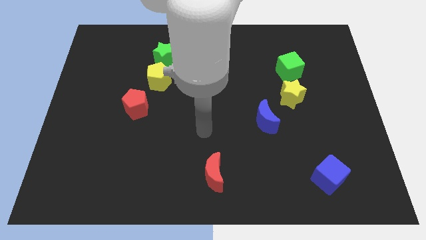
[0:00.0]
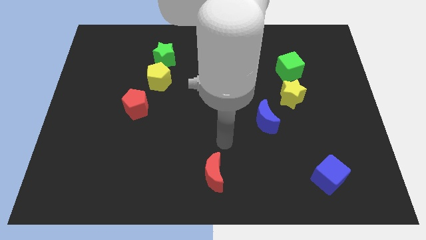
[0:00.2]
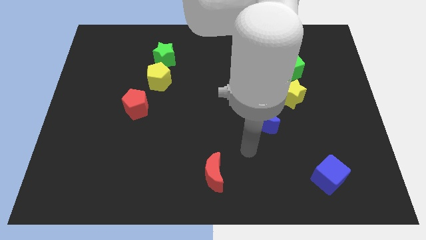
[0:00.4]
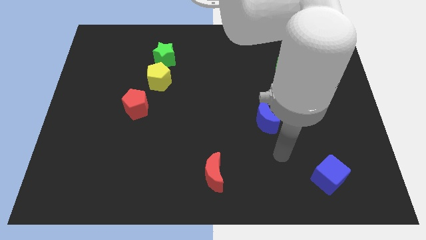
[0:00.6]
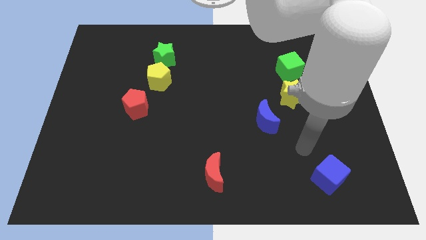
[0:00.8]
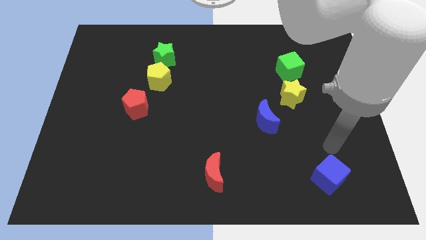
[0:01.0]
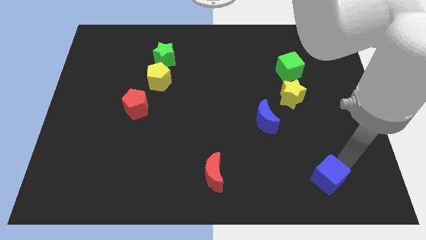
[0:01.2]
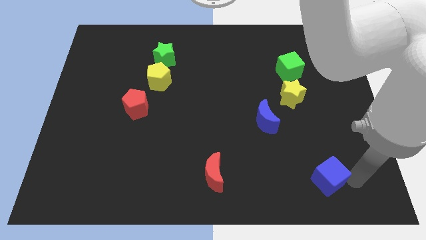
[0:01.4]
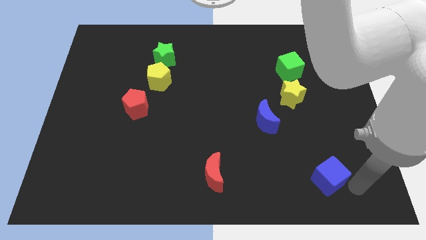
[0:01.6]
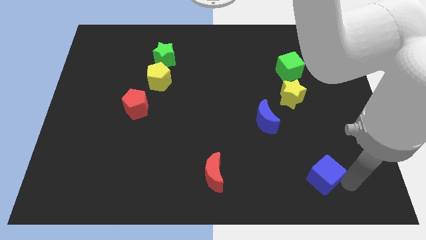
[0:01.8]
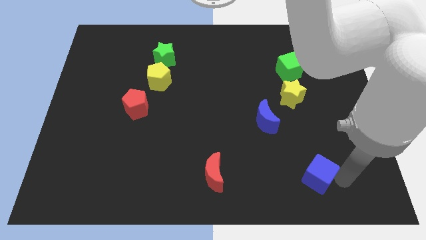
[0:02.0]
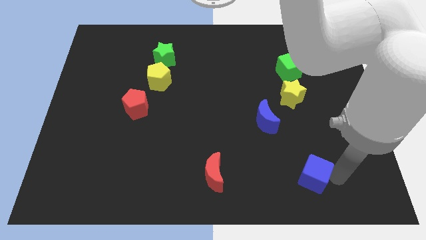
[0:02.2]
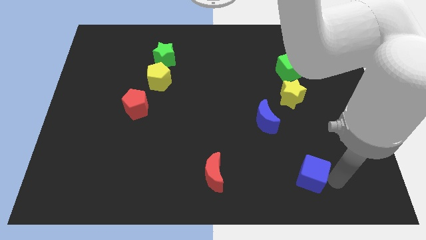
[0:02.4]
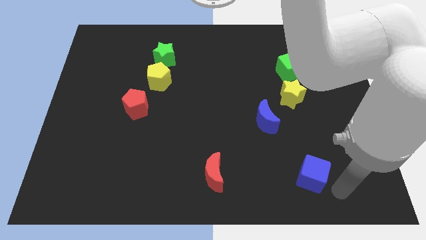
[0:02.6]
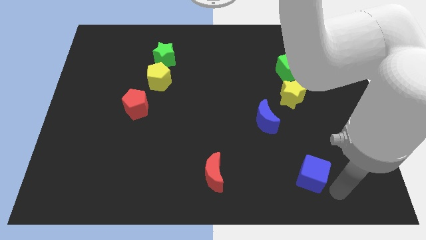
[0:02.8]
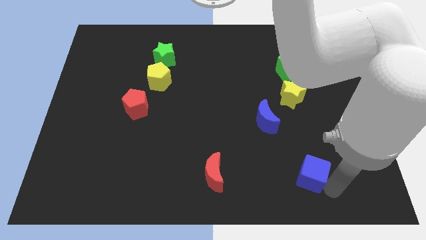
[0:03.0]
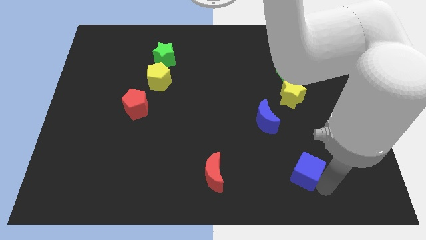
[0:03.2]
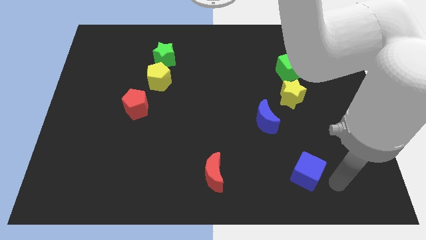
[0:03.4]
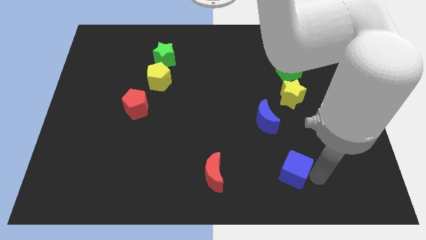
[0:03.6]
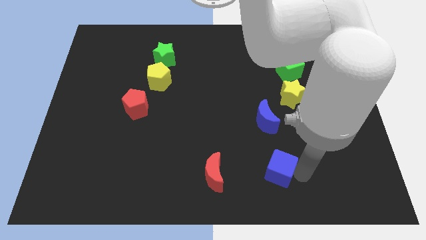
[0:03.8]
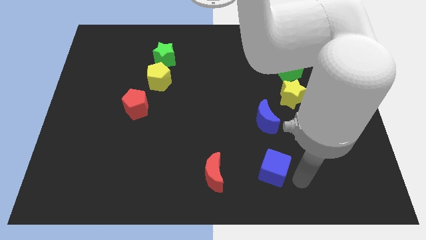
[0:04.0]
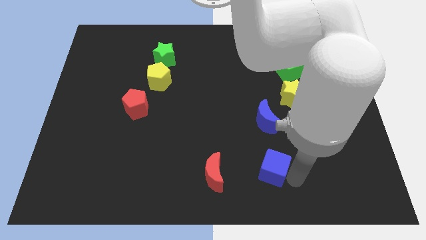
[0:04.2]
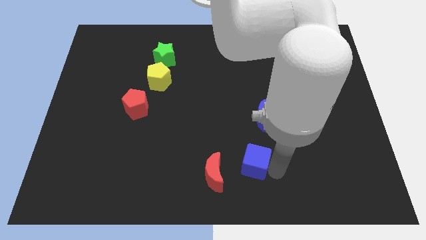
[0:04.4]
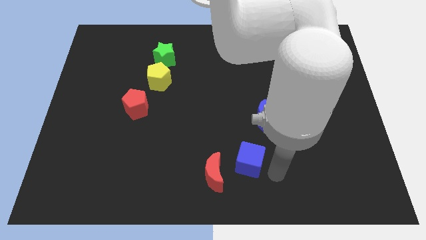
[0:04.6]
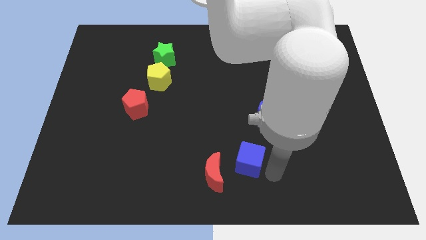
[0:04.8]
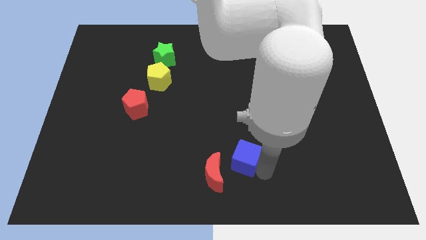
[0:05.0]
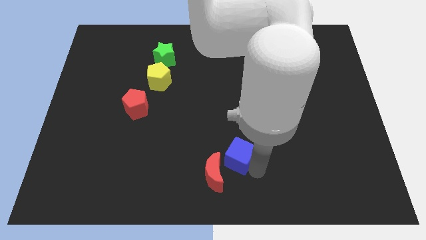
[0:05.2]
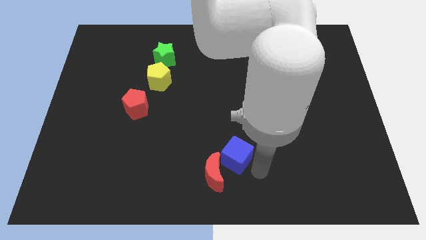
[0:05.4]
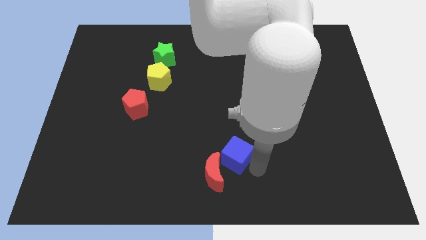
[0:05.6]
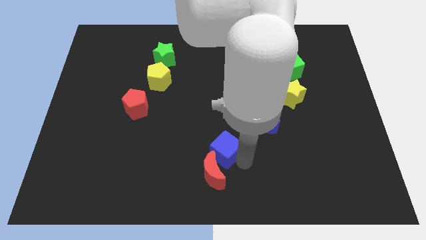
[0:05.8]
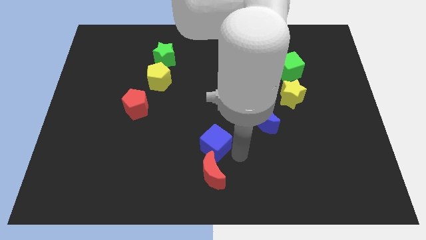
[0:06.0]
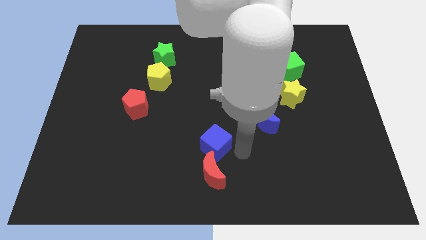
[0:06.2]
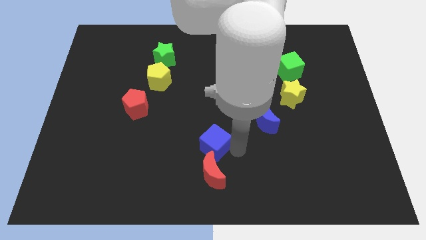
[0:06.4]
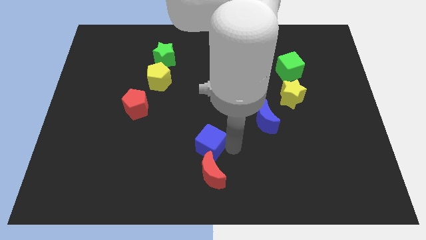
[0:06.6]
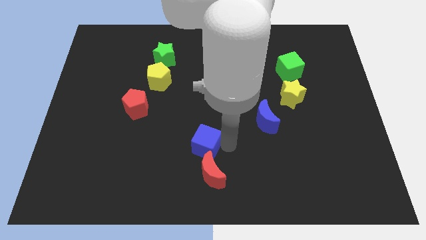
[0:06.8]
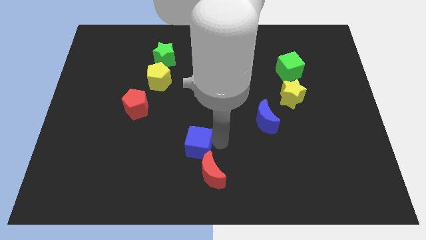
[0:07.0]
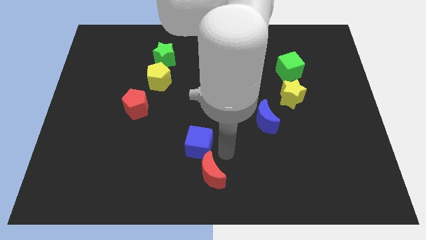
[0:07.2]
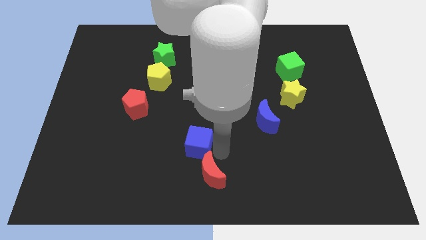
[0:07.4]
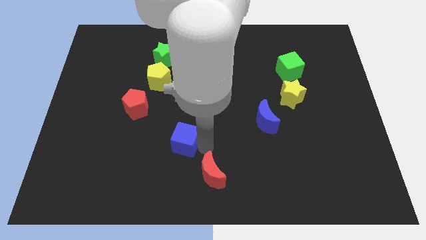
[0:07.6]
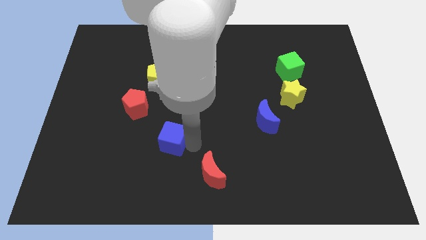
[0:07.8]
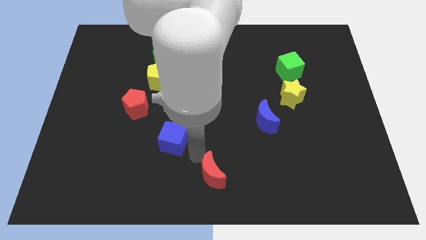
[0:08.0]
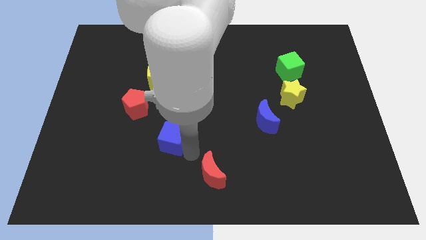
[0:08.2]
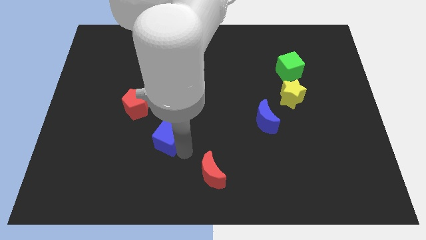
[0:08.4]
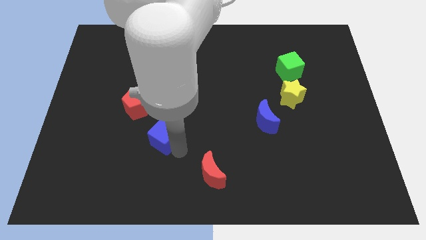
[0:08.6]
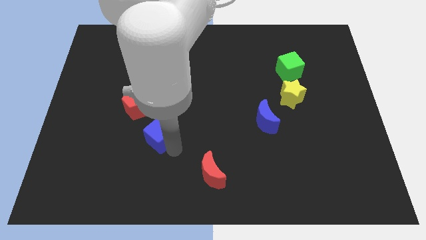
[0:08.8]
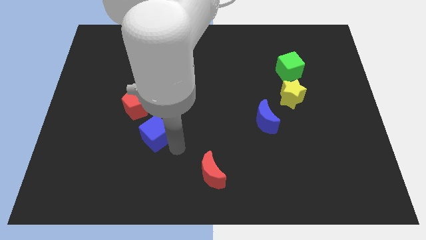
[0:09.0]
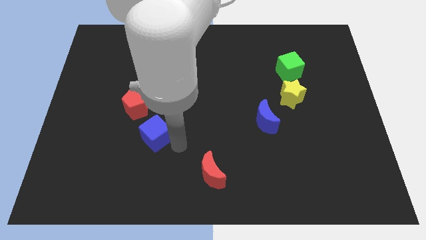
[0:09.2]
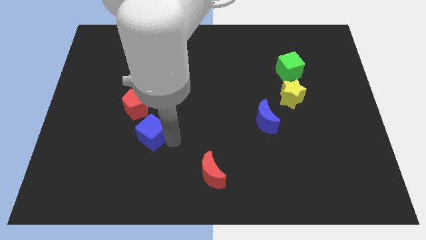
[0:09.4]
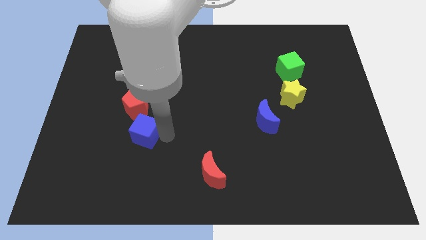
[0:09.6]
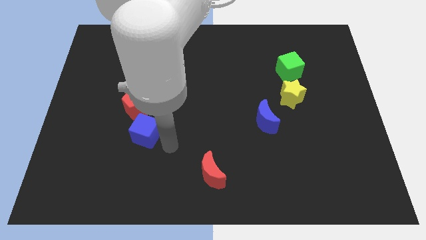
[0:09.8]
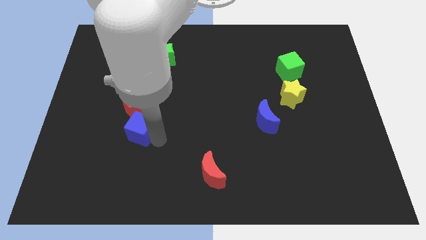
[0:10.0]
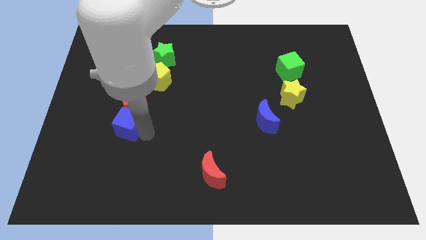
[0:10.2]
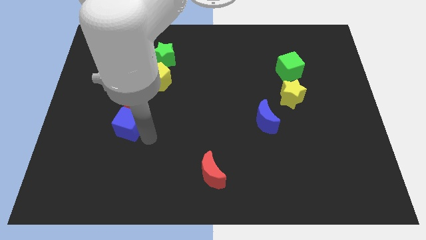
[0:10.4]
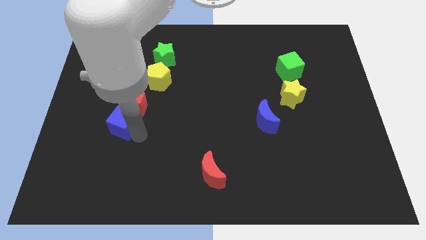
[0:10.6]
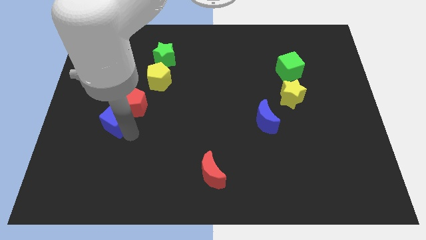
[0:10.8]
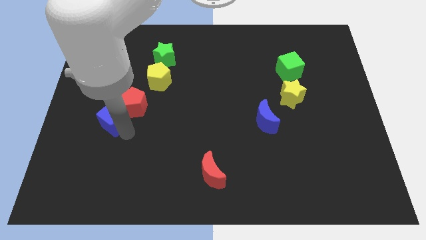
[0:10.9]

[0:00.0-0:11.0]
put the blue cube to the left side of the red pentagon

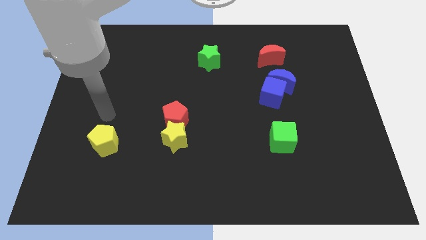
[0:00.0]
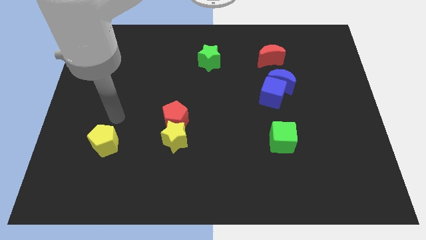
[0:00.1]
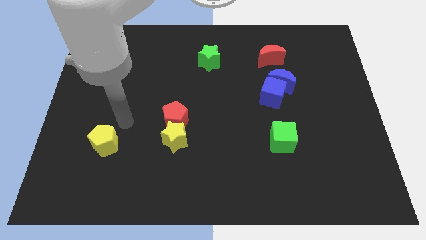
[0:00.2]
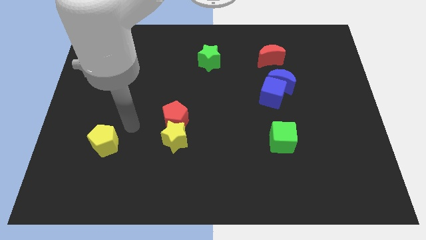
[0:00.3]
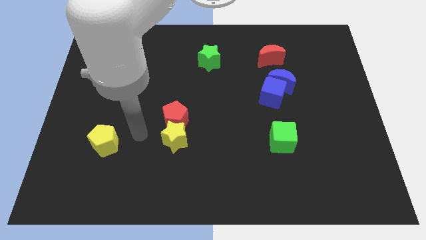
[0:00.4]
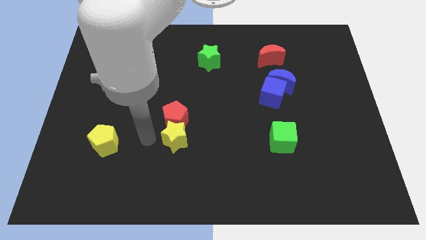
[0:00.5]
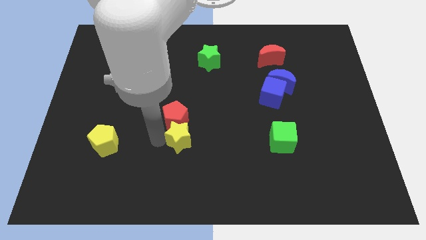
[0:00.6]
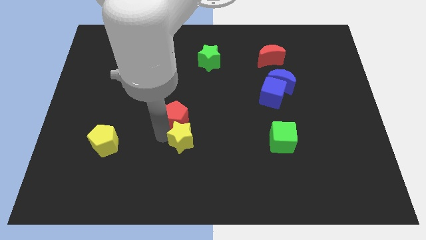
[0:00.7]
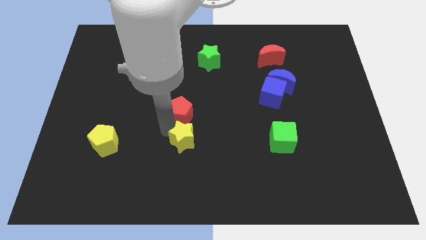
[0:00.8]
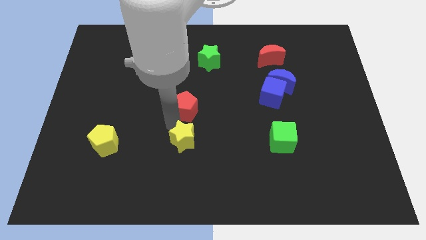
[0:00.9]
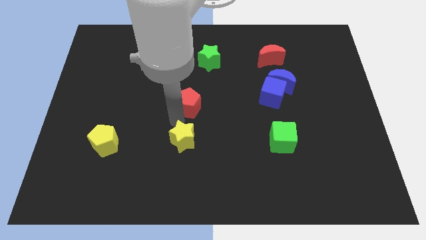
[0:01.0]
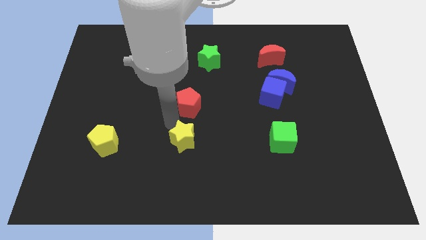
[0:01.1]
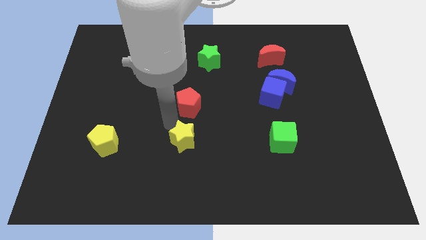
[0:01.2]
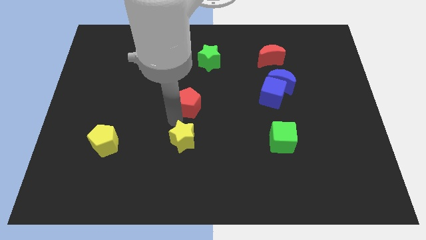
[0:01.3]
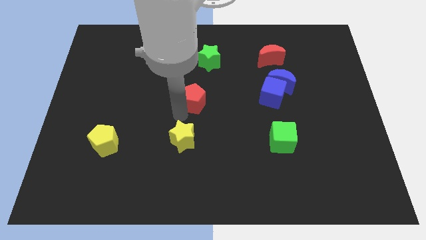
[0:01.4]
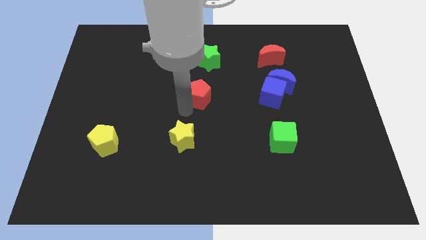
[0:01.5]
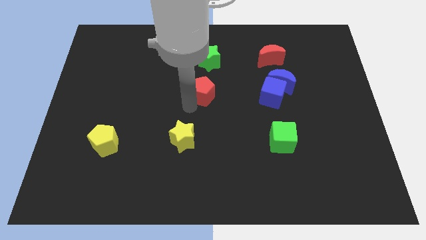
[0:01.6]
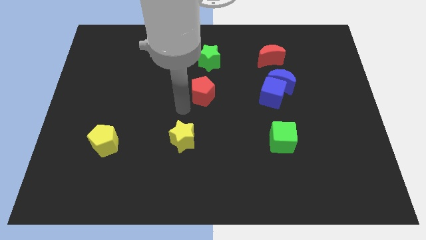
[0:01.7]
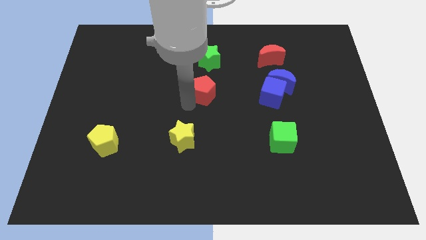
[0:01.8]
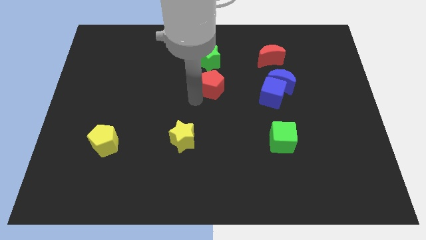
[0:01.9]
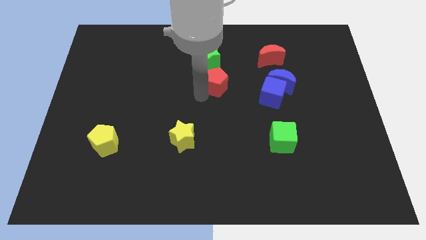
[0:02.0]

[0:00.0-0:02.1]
move the red pentagon diagonally down and to the right of the green star

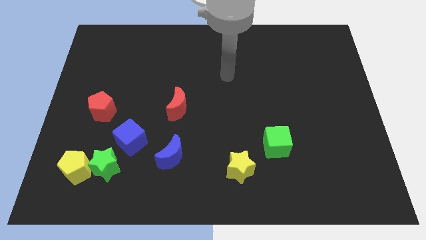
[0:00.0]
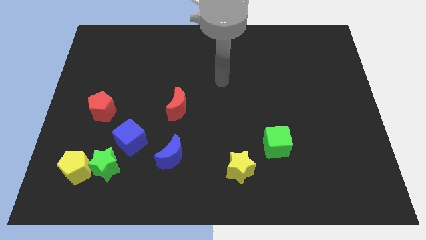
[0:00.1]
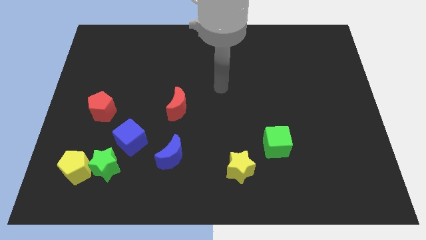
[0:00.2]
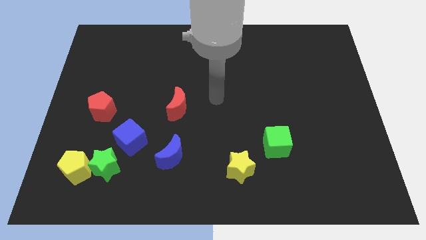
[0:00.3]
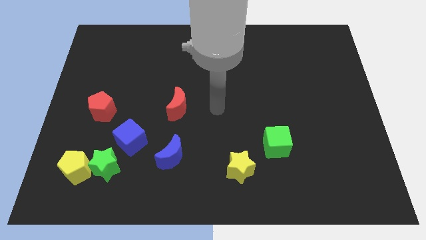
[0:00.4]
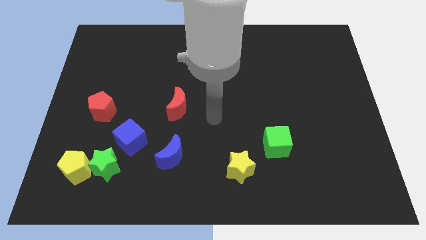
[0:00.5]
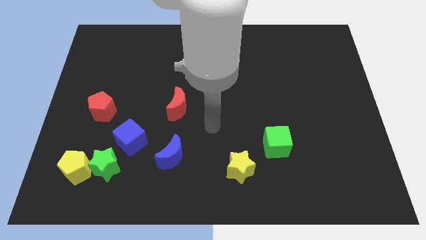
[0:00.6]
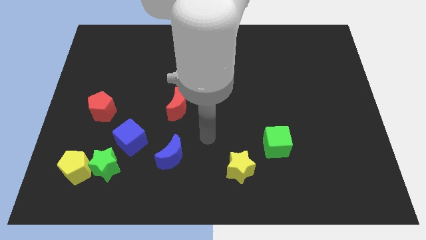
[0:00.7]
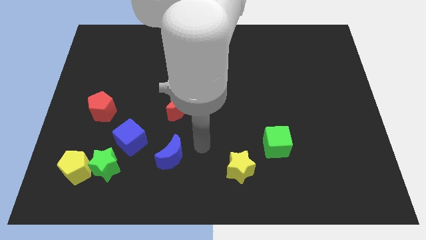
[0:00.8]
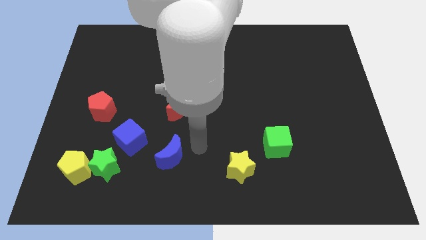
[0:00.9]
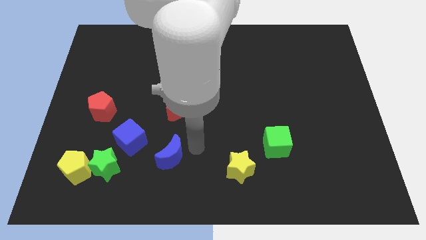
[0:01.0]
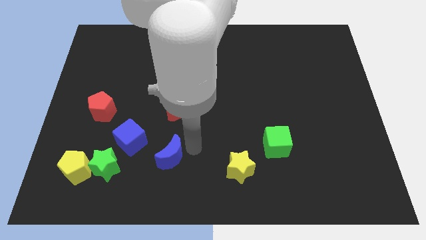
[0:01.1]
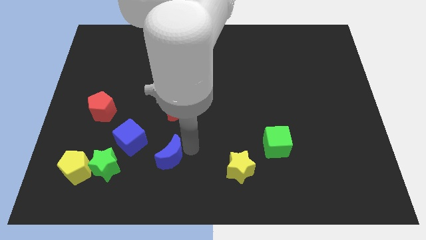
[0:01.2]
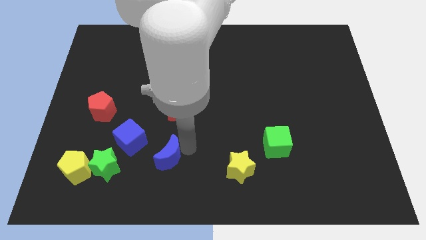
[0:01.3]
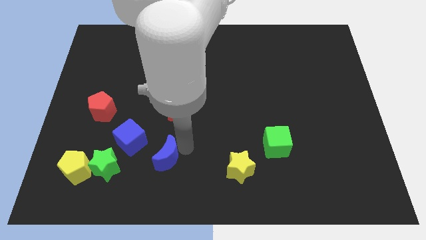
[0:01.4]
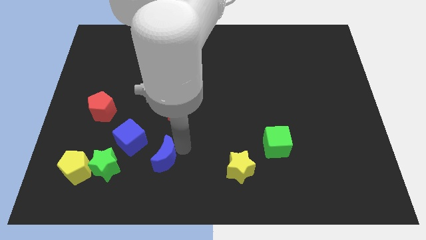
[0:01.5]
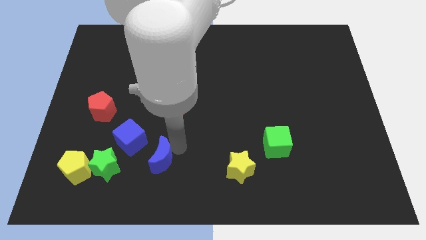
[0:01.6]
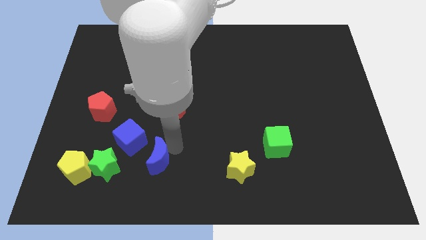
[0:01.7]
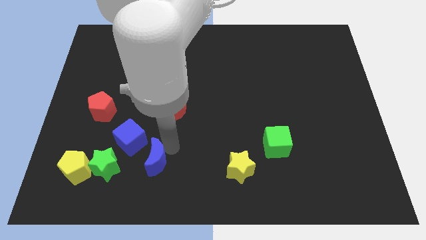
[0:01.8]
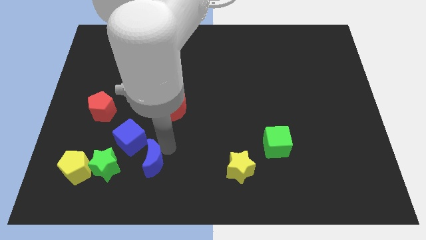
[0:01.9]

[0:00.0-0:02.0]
move the blue moon right of the yellow pentagon
